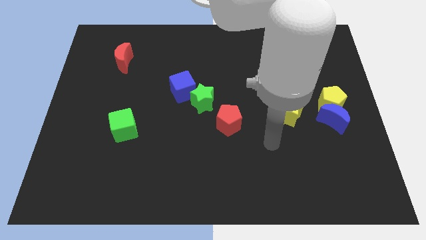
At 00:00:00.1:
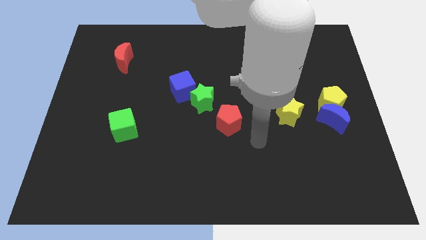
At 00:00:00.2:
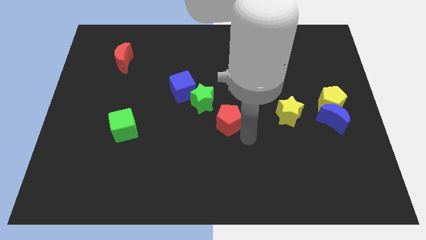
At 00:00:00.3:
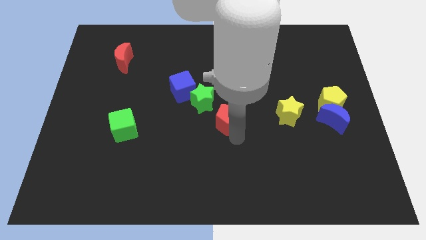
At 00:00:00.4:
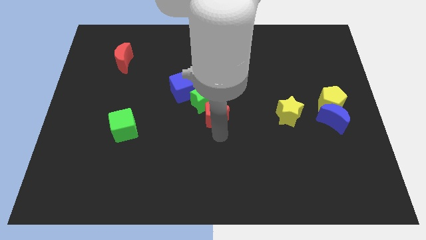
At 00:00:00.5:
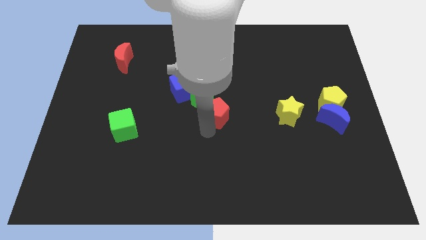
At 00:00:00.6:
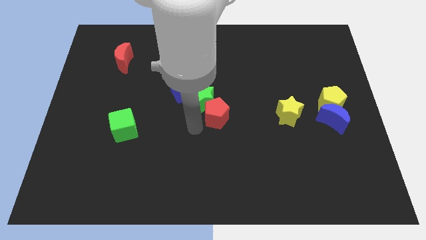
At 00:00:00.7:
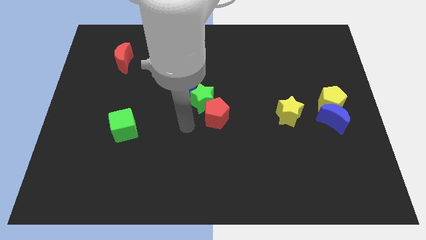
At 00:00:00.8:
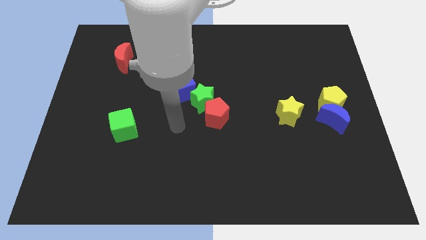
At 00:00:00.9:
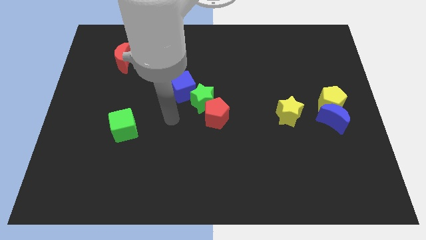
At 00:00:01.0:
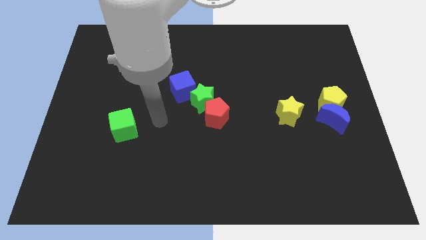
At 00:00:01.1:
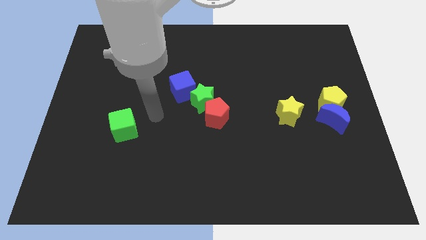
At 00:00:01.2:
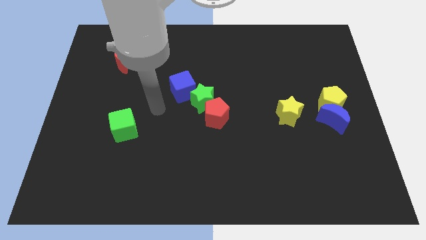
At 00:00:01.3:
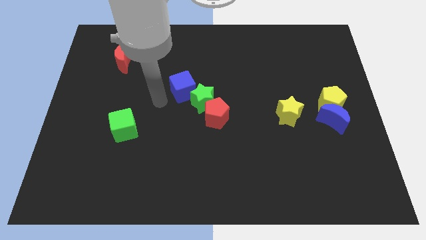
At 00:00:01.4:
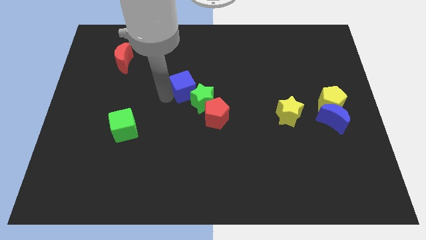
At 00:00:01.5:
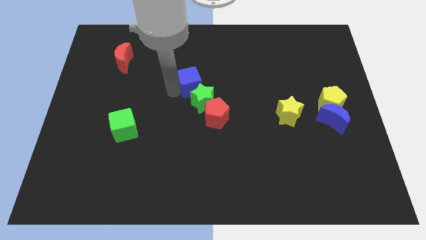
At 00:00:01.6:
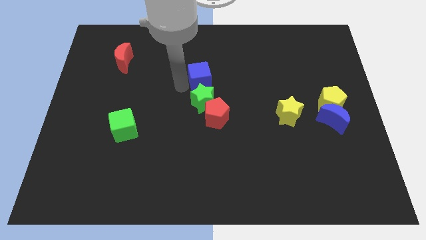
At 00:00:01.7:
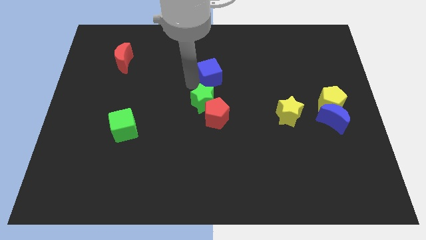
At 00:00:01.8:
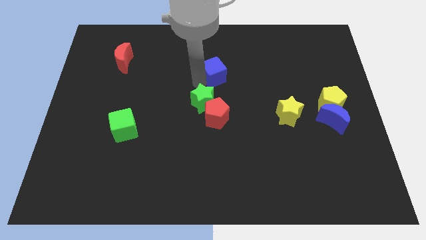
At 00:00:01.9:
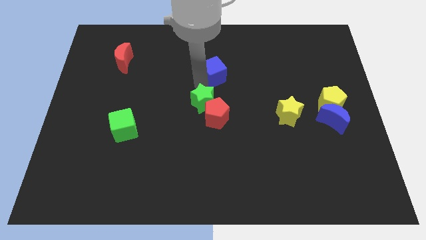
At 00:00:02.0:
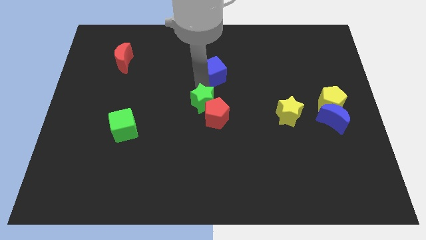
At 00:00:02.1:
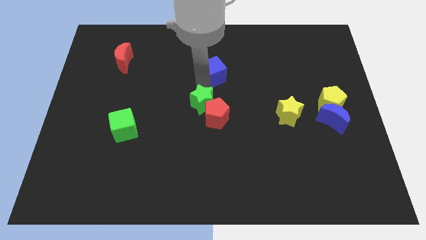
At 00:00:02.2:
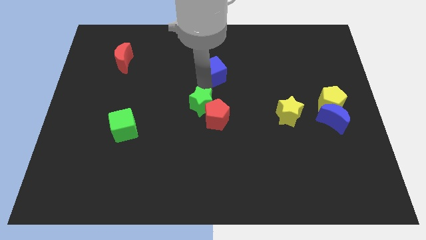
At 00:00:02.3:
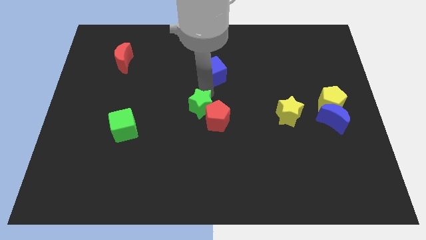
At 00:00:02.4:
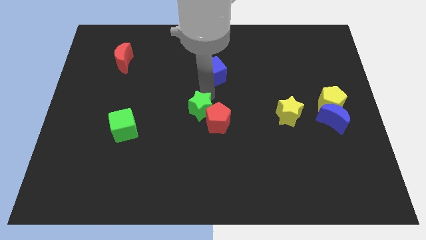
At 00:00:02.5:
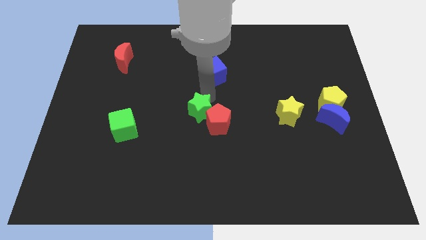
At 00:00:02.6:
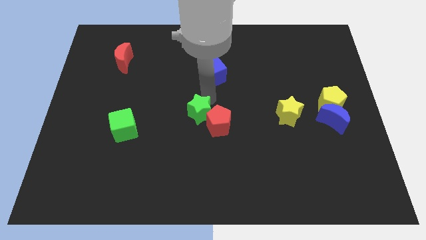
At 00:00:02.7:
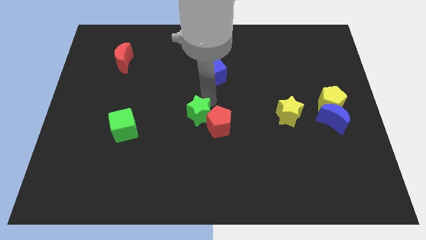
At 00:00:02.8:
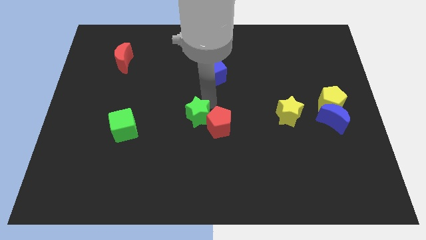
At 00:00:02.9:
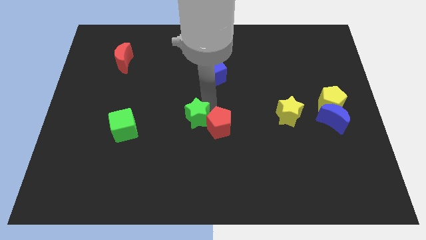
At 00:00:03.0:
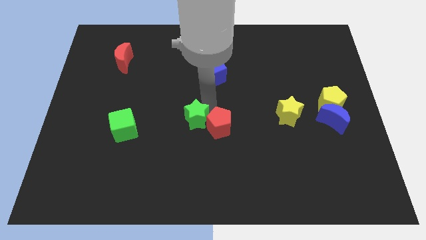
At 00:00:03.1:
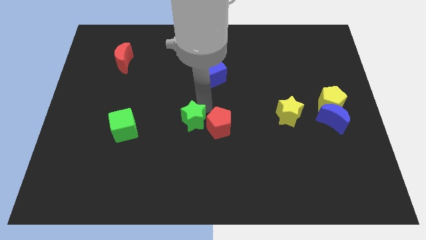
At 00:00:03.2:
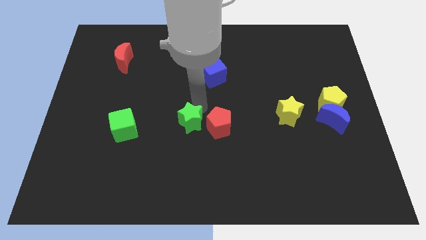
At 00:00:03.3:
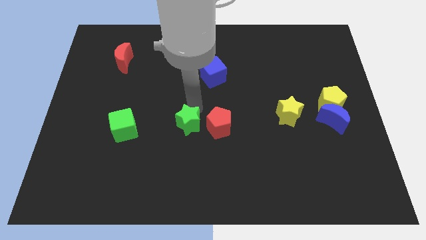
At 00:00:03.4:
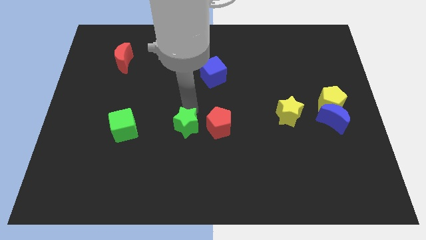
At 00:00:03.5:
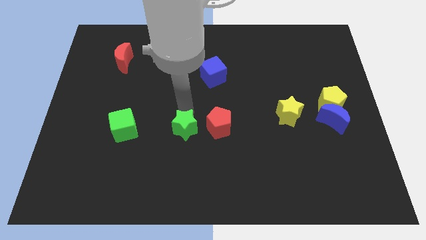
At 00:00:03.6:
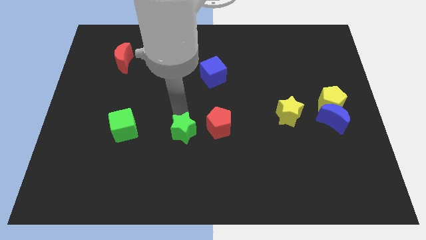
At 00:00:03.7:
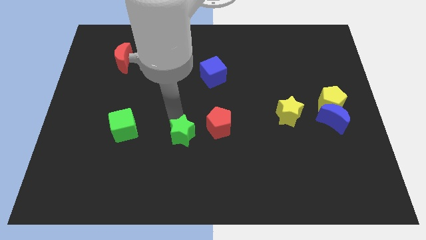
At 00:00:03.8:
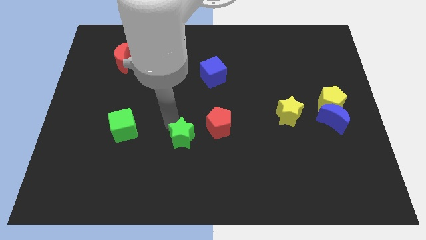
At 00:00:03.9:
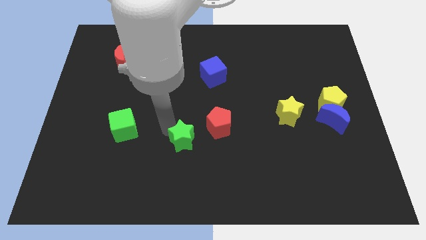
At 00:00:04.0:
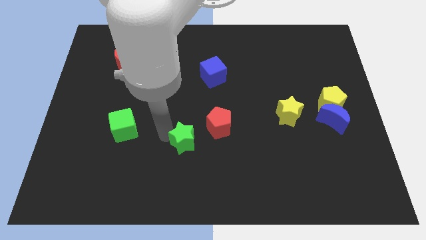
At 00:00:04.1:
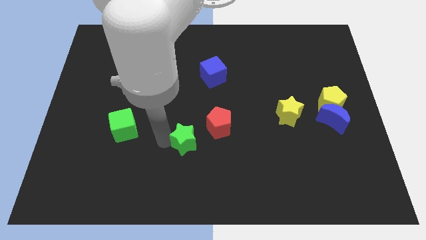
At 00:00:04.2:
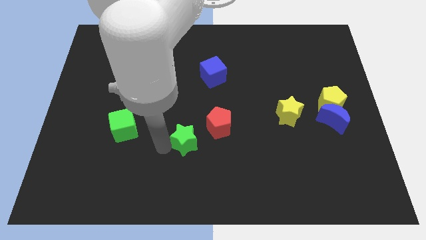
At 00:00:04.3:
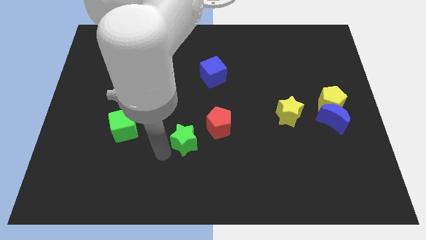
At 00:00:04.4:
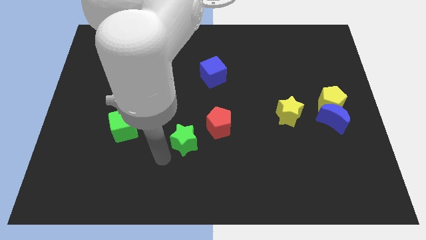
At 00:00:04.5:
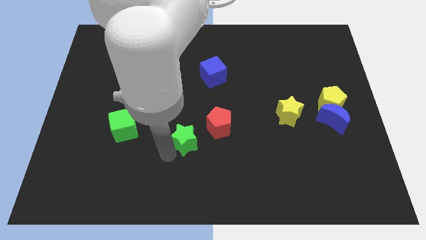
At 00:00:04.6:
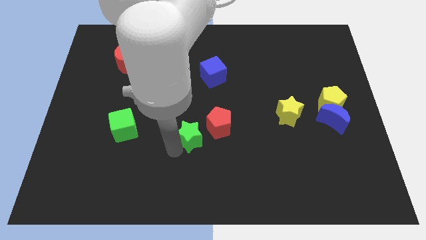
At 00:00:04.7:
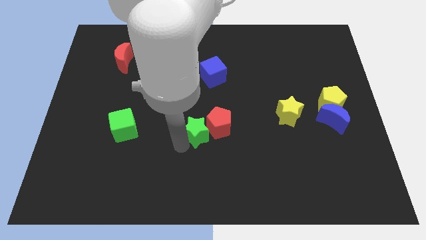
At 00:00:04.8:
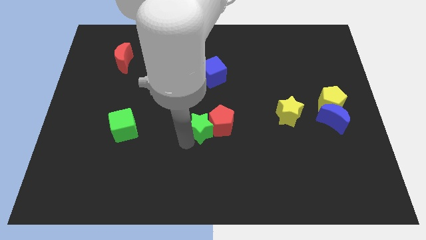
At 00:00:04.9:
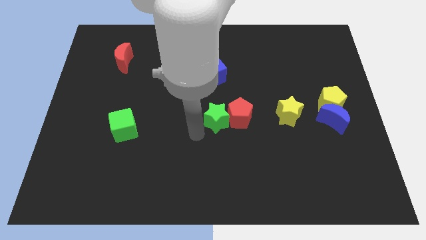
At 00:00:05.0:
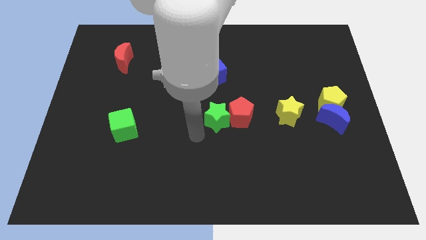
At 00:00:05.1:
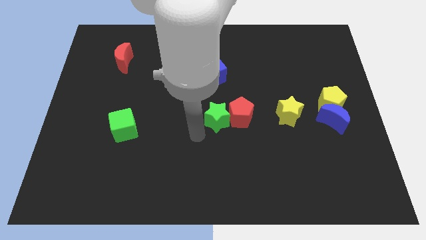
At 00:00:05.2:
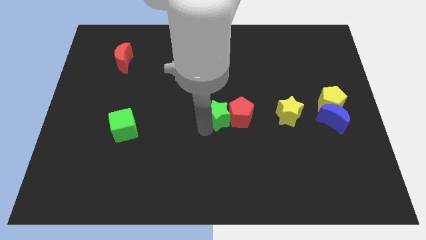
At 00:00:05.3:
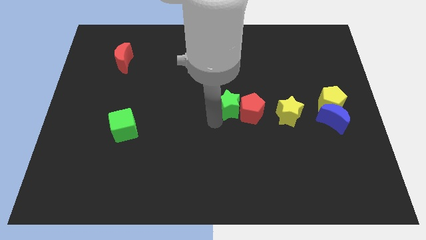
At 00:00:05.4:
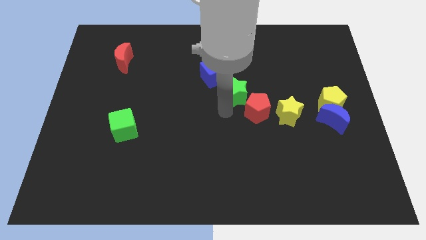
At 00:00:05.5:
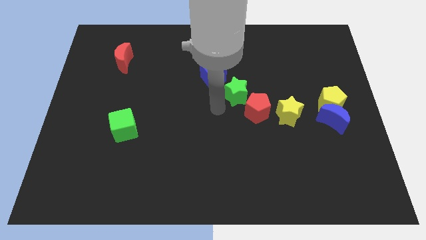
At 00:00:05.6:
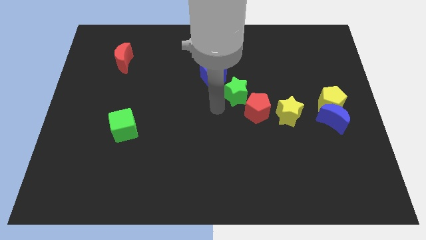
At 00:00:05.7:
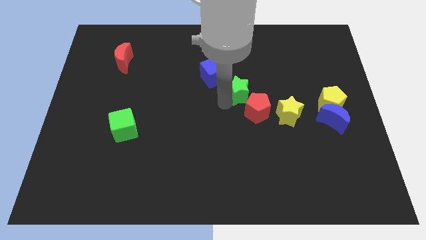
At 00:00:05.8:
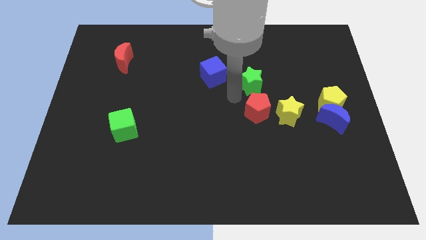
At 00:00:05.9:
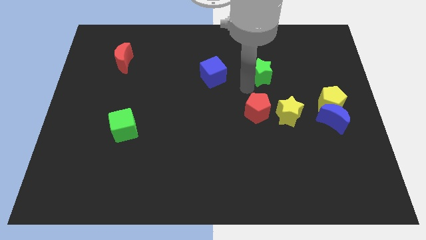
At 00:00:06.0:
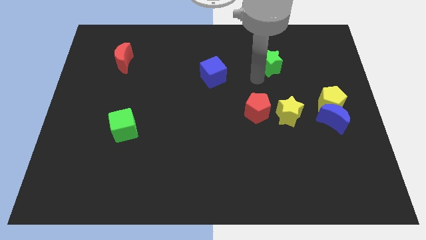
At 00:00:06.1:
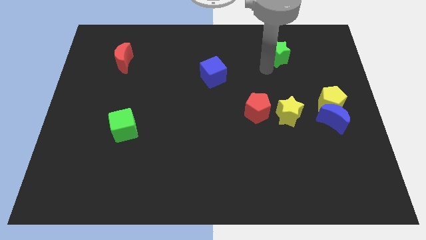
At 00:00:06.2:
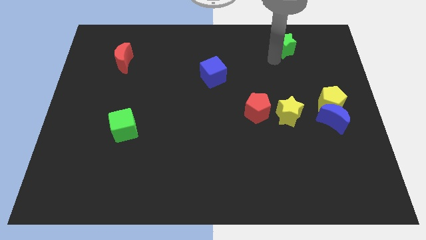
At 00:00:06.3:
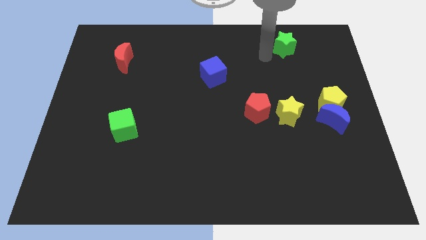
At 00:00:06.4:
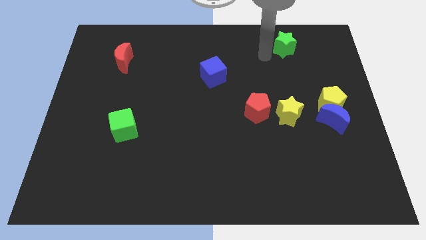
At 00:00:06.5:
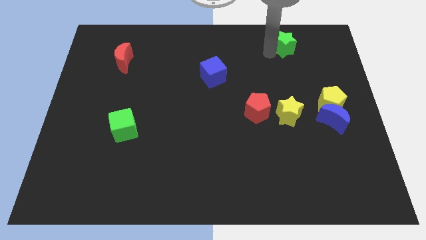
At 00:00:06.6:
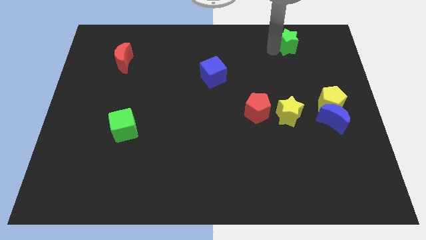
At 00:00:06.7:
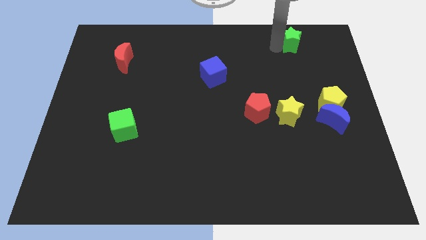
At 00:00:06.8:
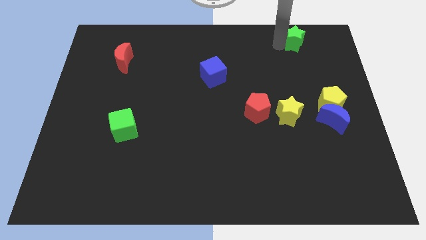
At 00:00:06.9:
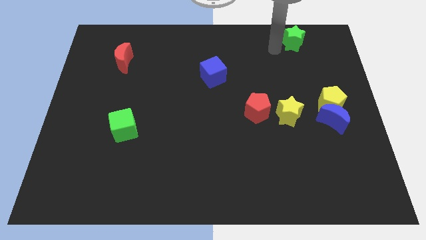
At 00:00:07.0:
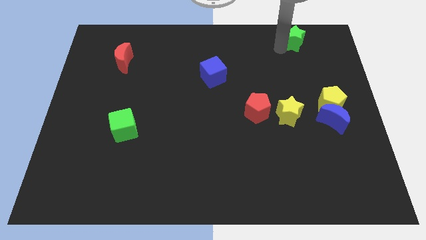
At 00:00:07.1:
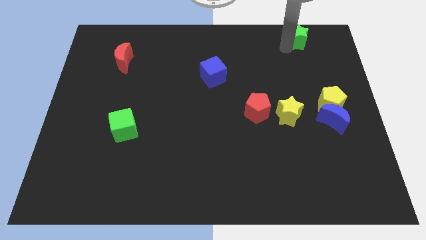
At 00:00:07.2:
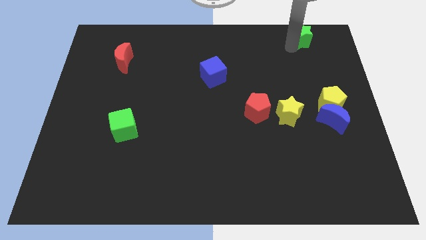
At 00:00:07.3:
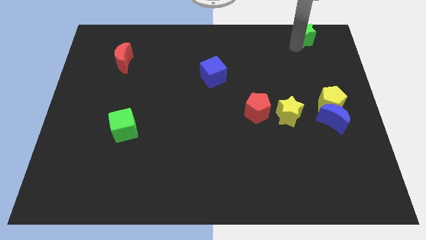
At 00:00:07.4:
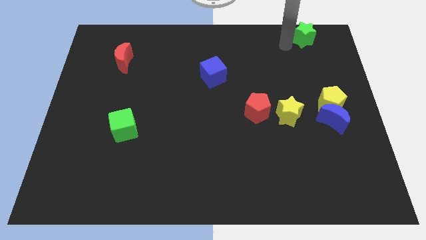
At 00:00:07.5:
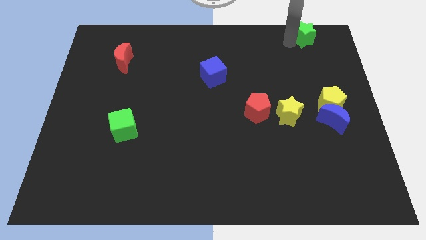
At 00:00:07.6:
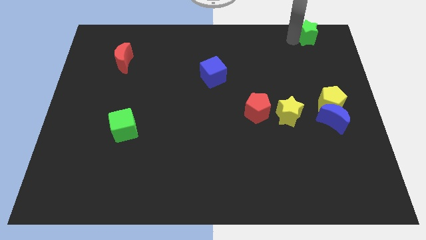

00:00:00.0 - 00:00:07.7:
slide the green star to the top right
